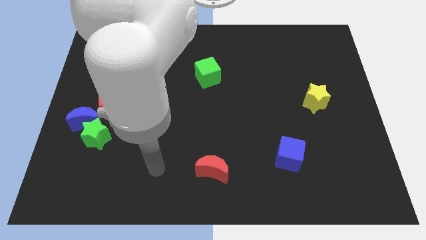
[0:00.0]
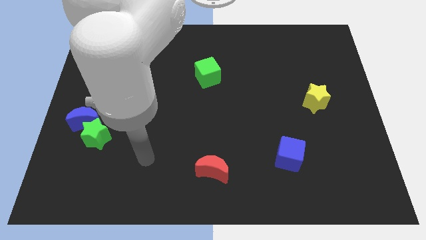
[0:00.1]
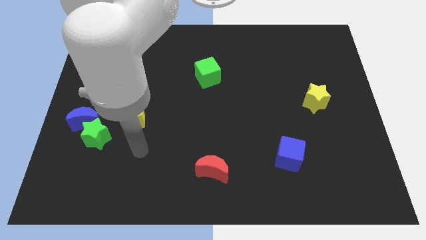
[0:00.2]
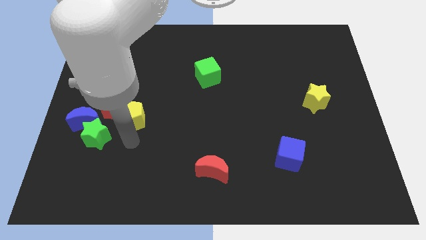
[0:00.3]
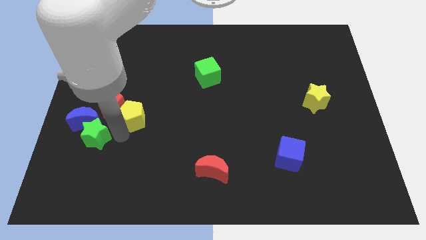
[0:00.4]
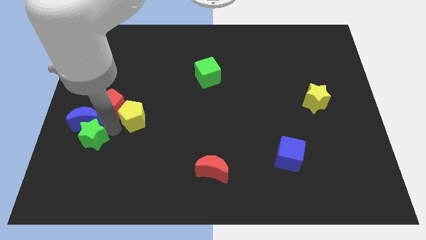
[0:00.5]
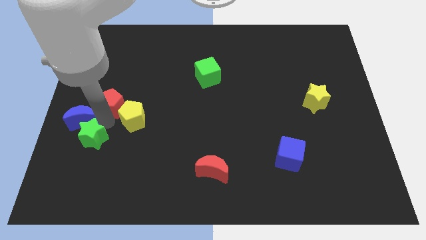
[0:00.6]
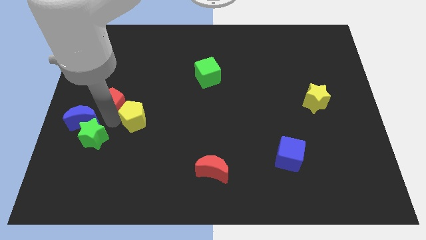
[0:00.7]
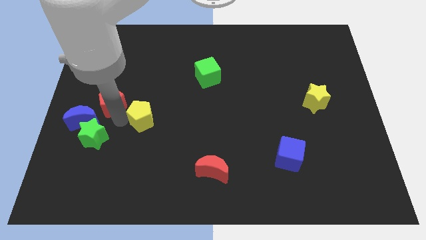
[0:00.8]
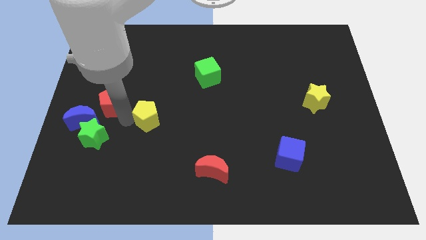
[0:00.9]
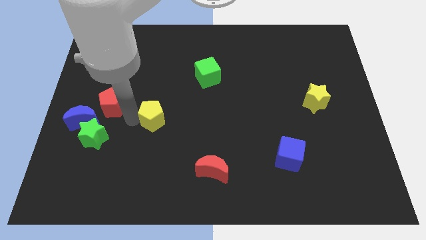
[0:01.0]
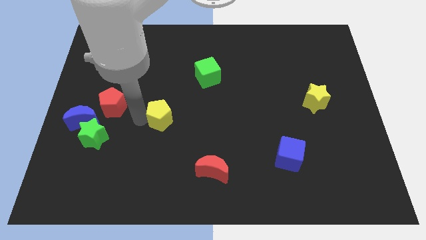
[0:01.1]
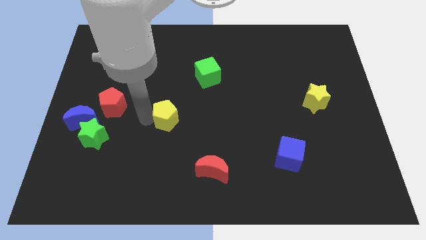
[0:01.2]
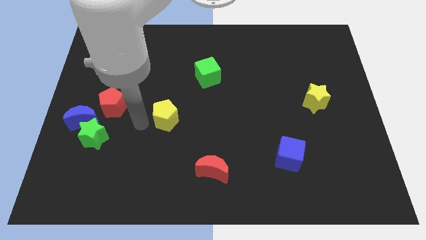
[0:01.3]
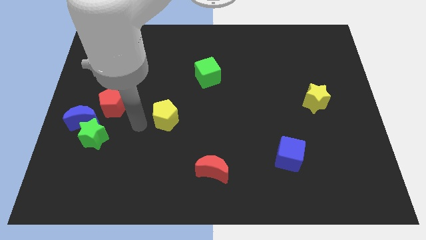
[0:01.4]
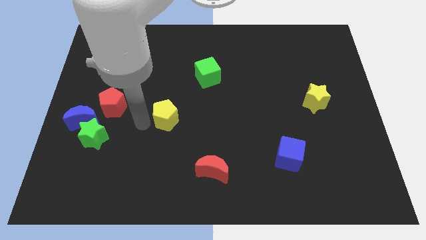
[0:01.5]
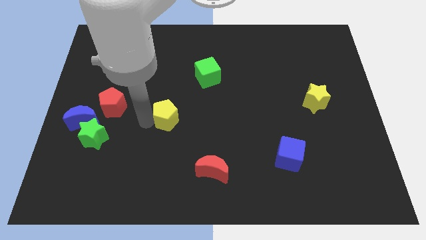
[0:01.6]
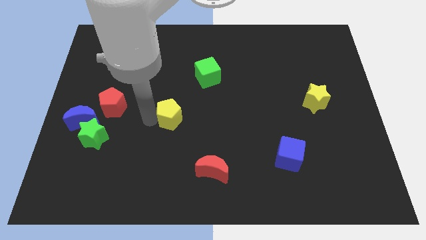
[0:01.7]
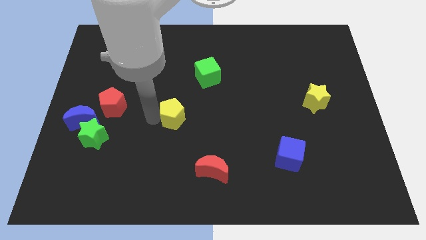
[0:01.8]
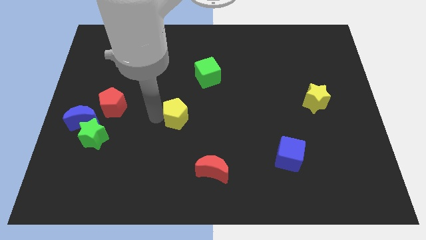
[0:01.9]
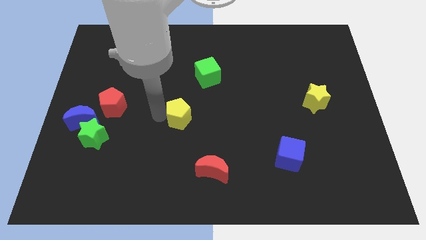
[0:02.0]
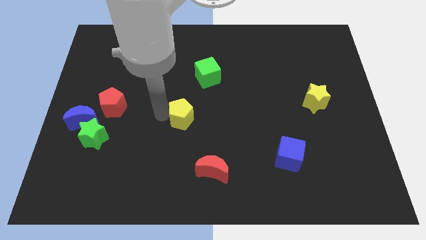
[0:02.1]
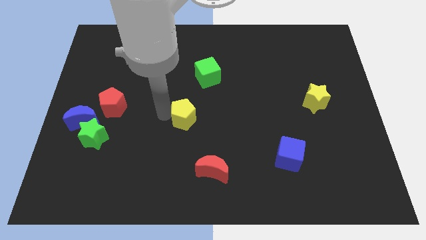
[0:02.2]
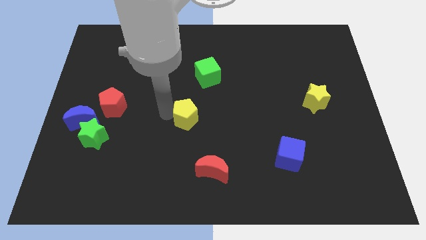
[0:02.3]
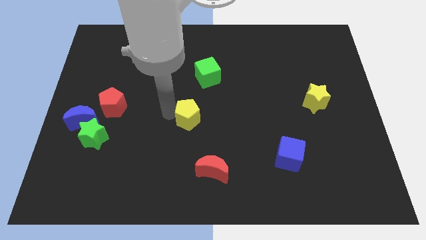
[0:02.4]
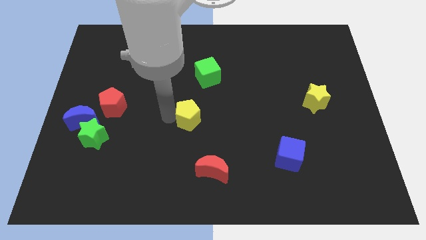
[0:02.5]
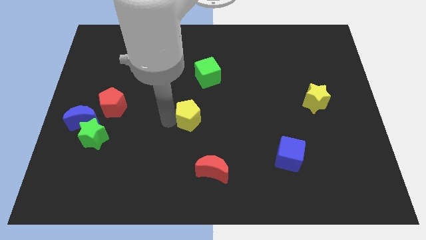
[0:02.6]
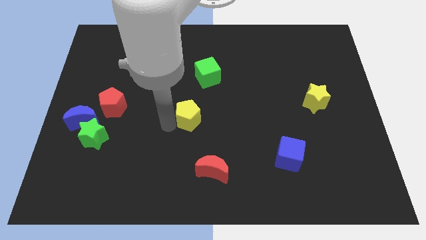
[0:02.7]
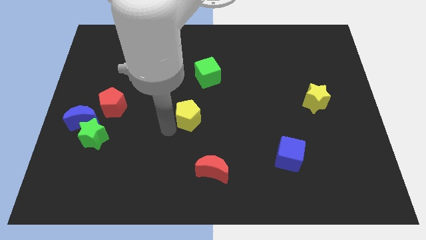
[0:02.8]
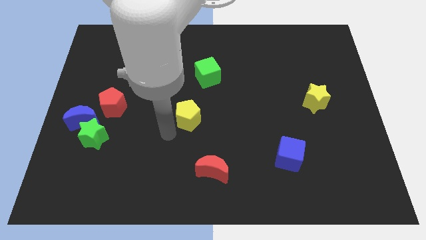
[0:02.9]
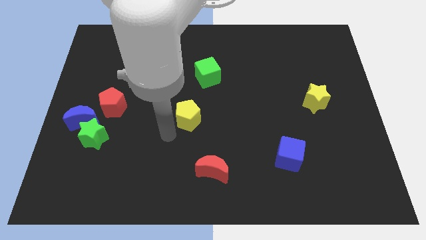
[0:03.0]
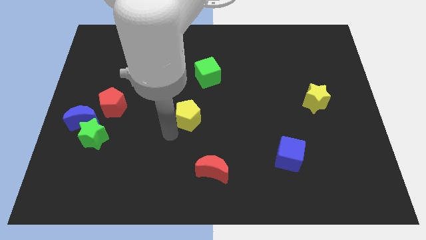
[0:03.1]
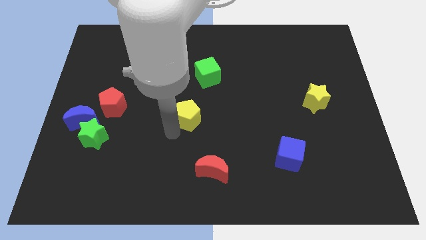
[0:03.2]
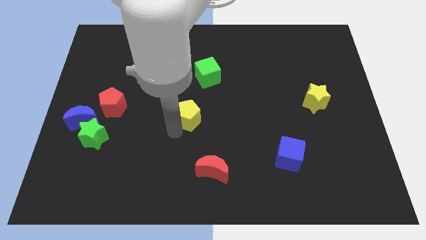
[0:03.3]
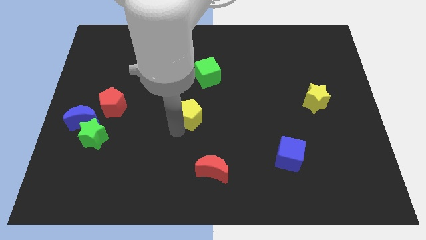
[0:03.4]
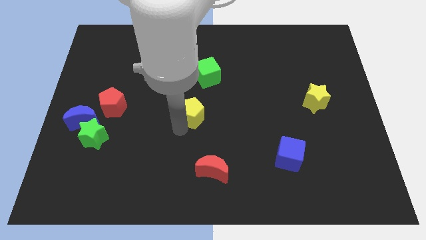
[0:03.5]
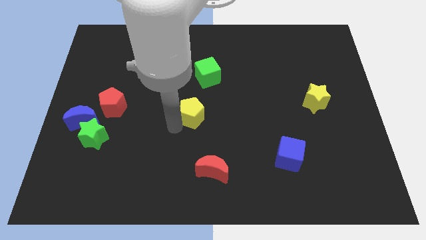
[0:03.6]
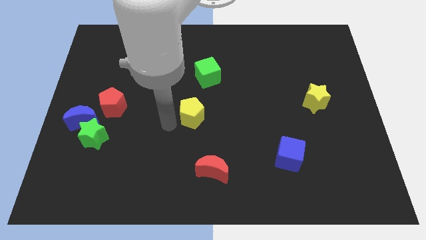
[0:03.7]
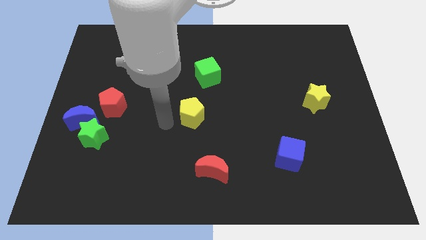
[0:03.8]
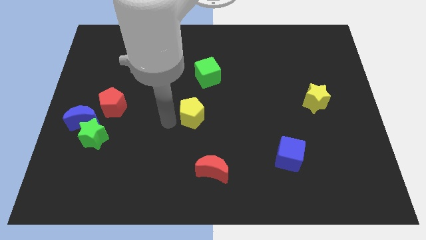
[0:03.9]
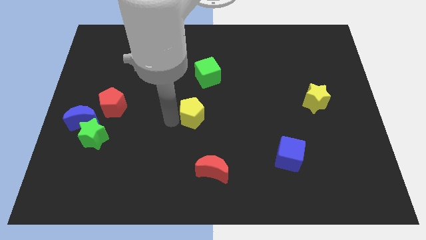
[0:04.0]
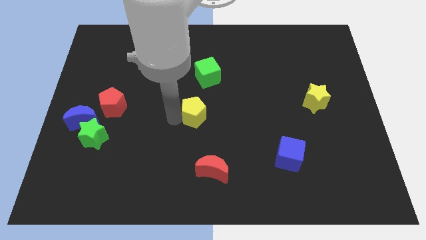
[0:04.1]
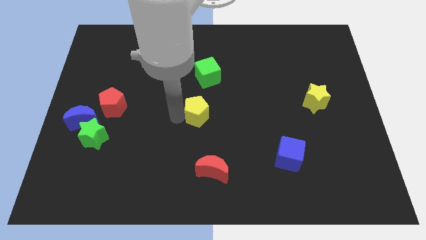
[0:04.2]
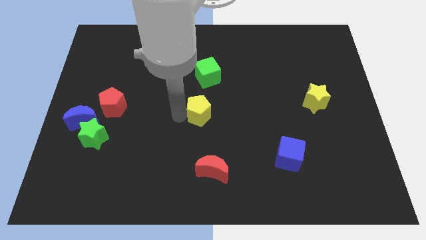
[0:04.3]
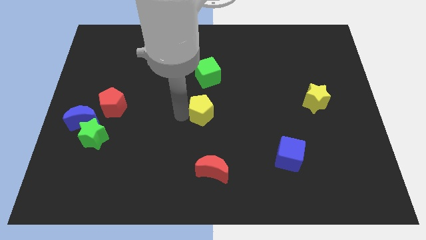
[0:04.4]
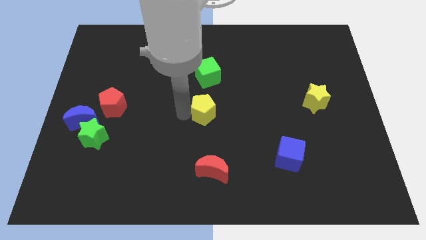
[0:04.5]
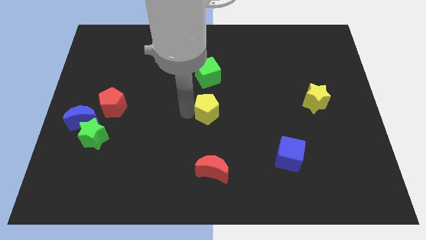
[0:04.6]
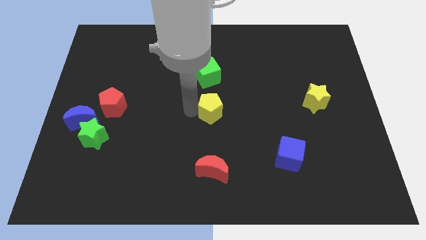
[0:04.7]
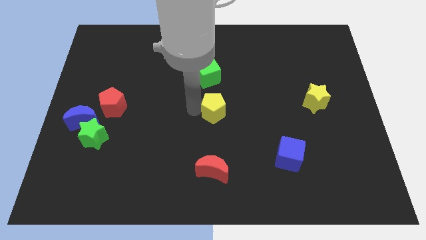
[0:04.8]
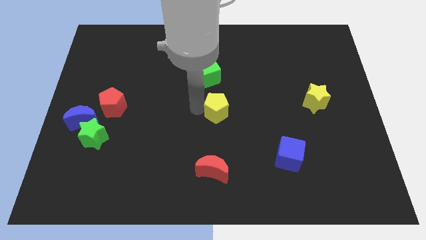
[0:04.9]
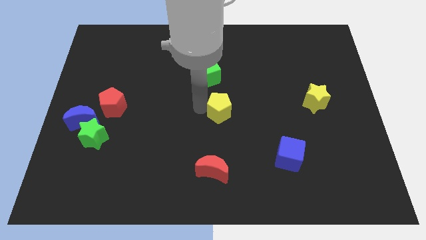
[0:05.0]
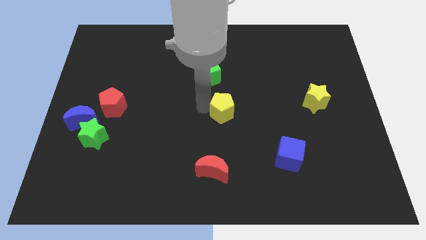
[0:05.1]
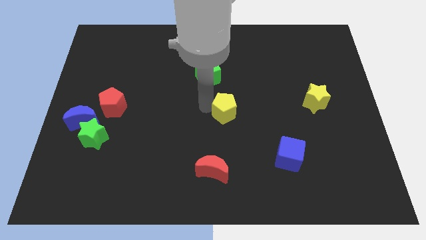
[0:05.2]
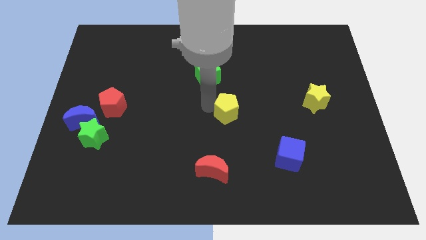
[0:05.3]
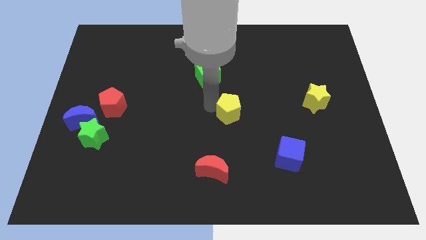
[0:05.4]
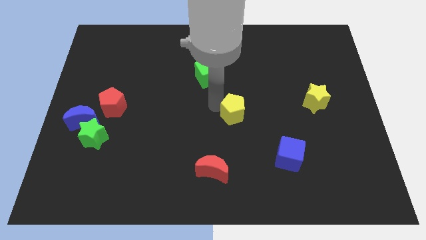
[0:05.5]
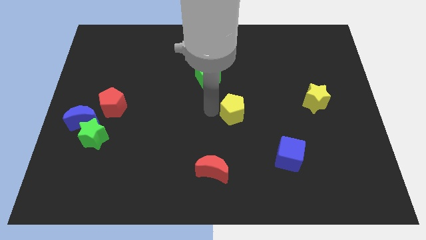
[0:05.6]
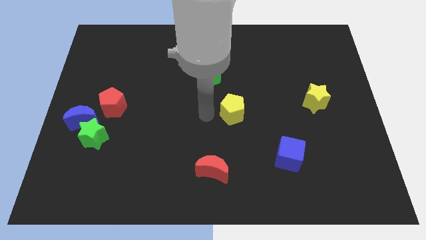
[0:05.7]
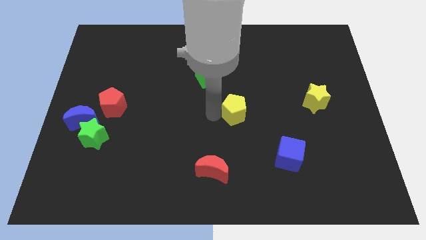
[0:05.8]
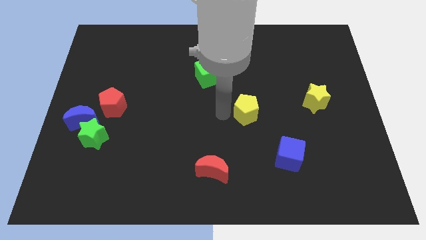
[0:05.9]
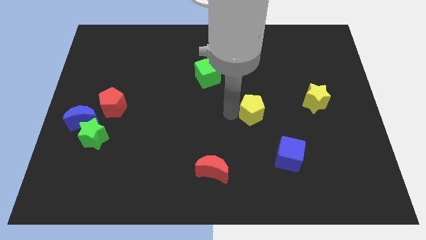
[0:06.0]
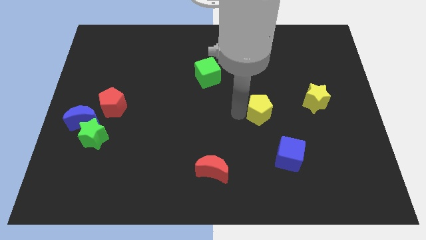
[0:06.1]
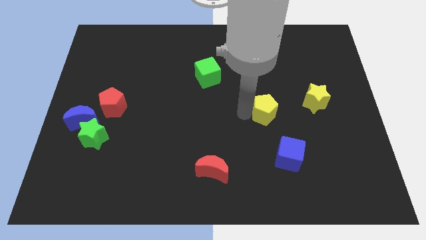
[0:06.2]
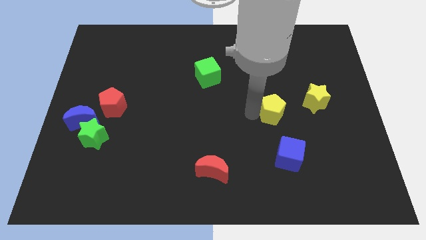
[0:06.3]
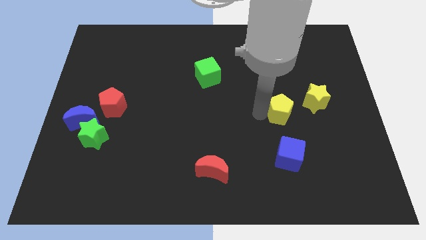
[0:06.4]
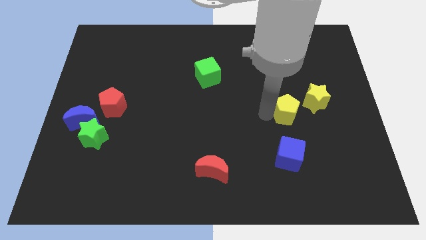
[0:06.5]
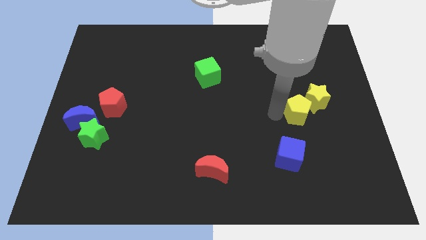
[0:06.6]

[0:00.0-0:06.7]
move the yellow pentagon close to the yellow star

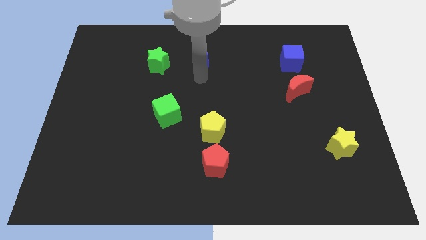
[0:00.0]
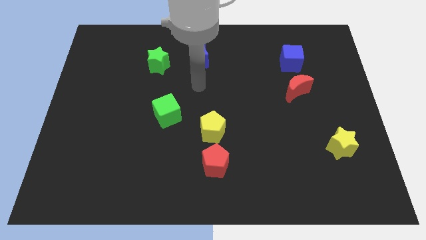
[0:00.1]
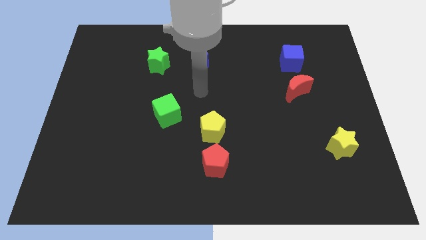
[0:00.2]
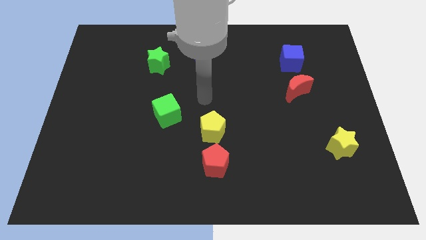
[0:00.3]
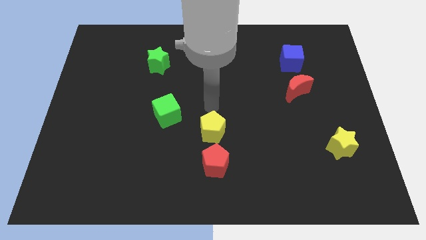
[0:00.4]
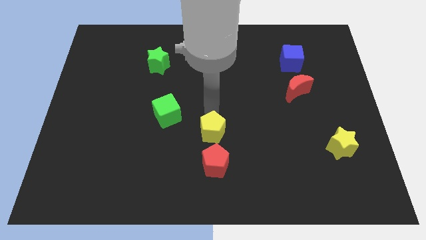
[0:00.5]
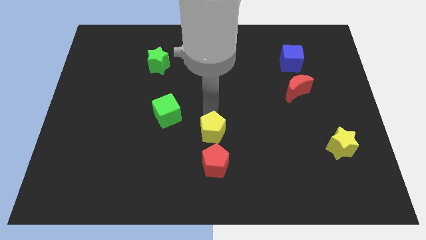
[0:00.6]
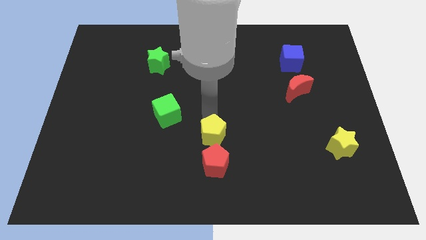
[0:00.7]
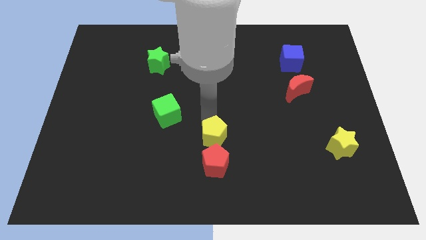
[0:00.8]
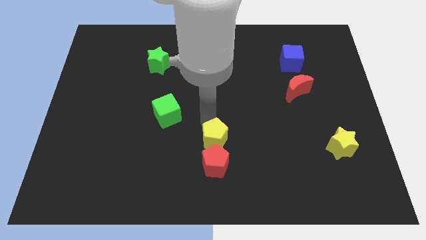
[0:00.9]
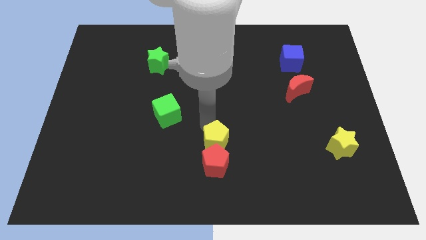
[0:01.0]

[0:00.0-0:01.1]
move the yellow pentagon close to the red pentagon
